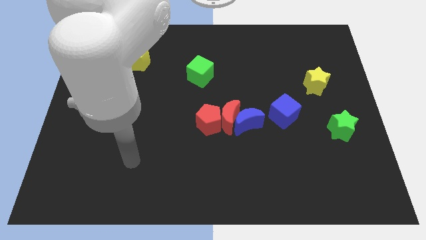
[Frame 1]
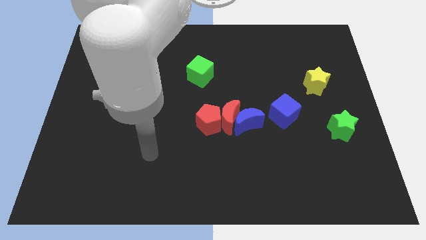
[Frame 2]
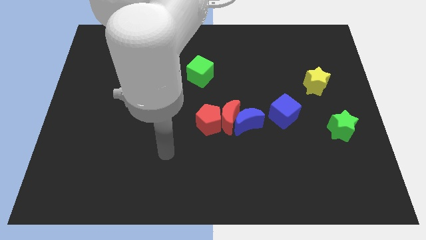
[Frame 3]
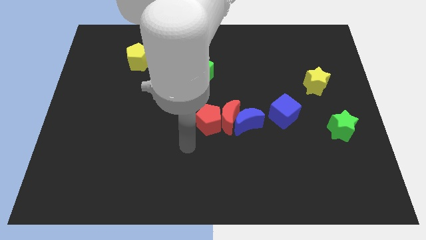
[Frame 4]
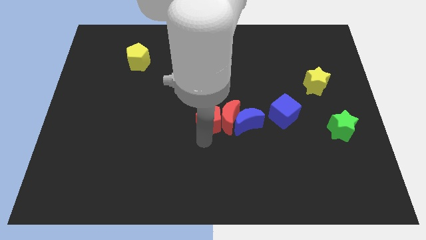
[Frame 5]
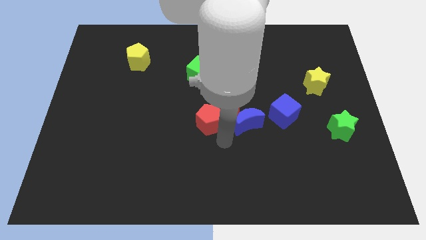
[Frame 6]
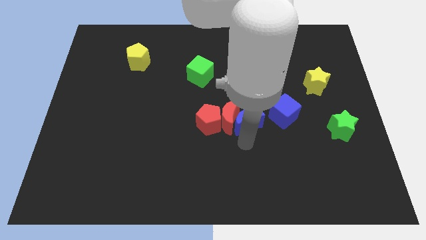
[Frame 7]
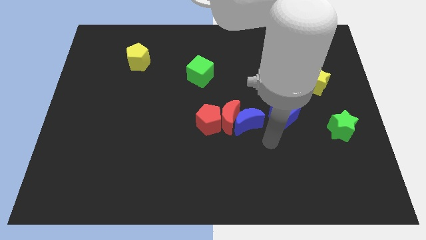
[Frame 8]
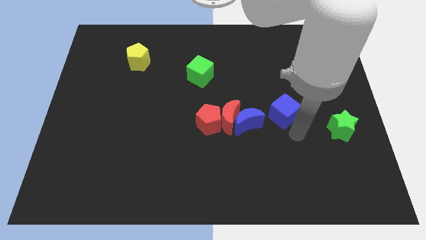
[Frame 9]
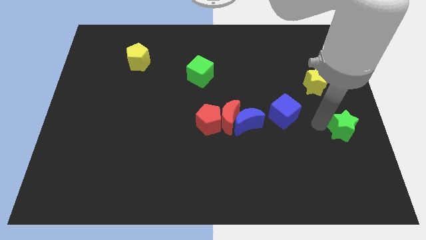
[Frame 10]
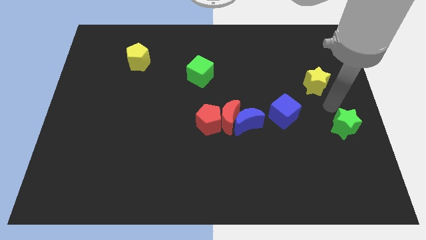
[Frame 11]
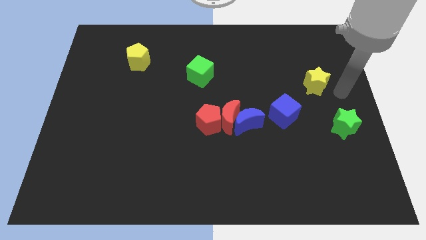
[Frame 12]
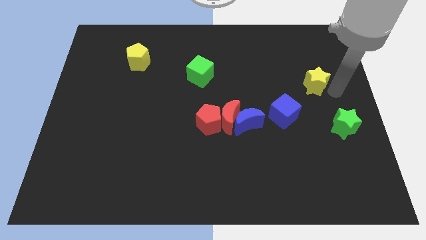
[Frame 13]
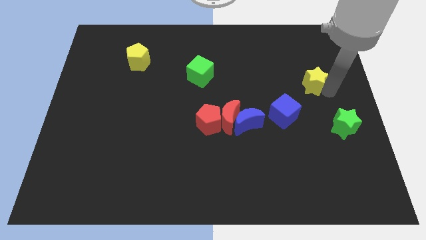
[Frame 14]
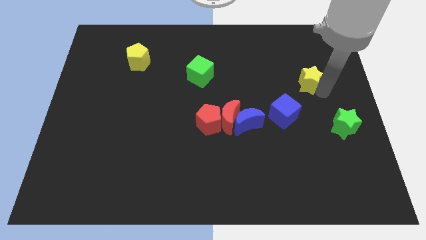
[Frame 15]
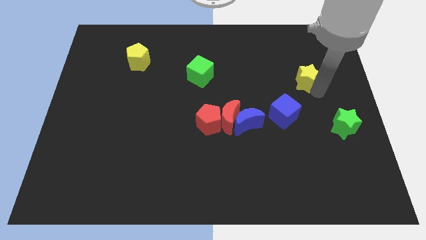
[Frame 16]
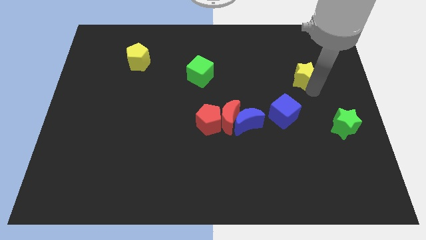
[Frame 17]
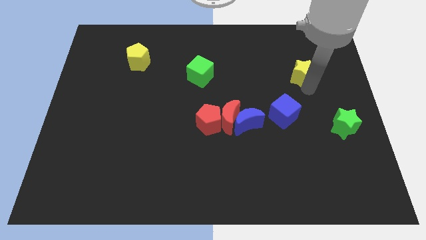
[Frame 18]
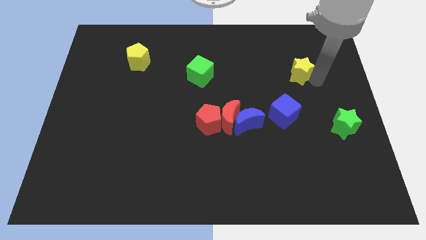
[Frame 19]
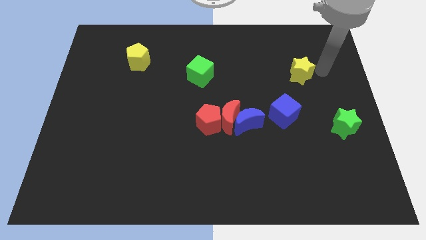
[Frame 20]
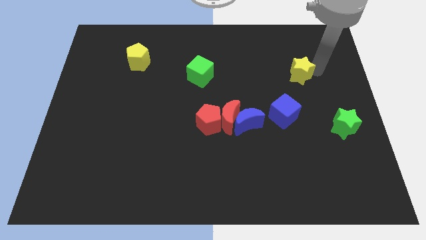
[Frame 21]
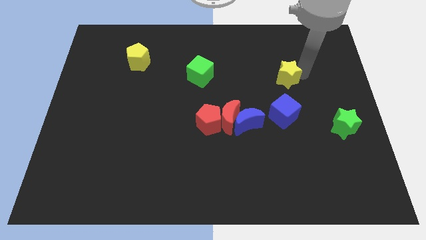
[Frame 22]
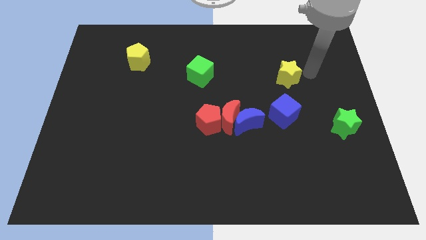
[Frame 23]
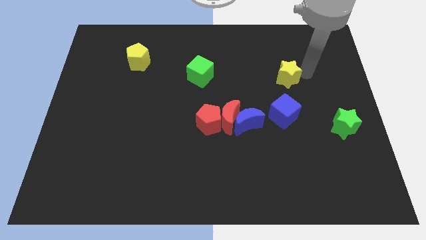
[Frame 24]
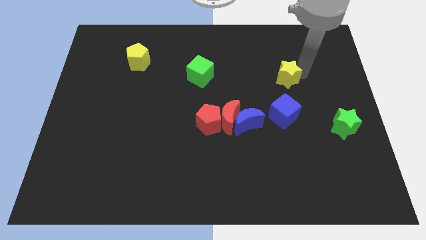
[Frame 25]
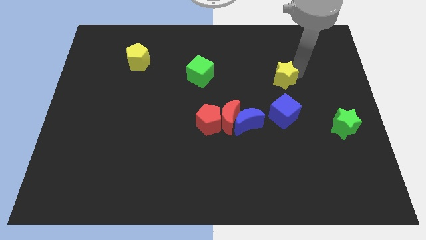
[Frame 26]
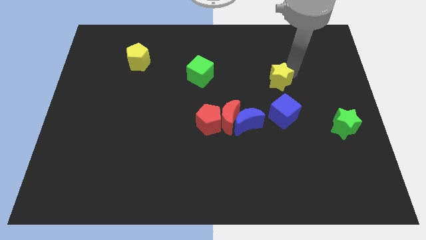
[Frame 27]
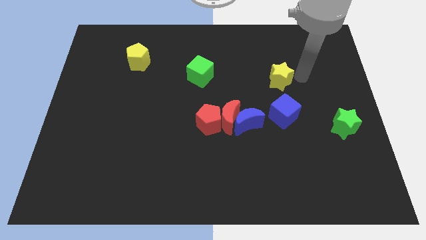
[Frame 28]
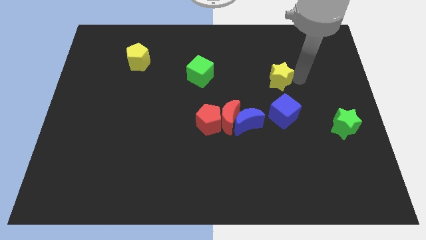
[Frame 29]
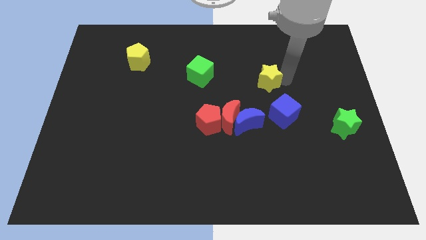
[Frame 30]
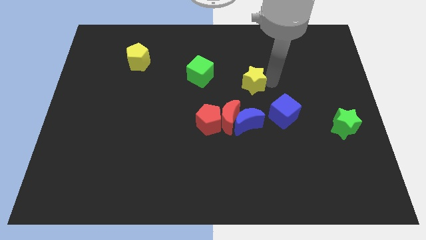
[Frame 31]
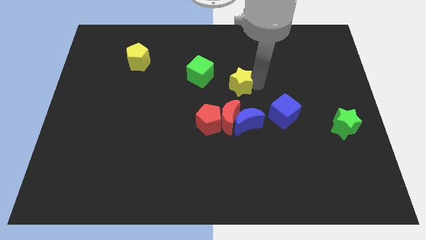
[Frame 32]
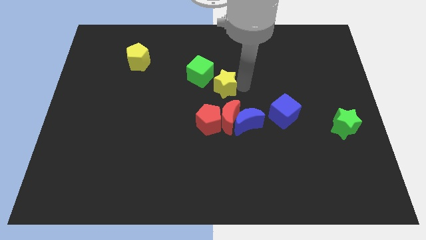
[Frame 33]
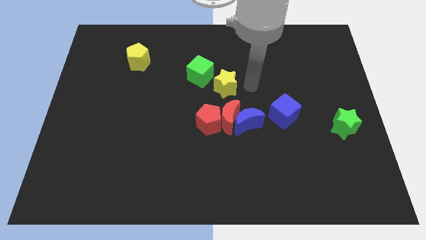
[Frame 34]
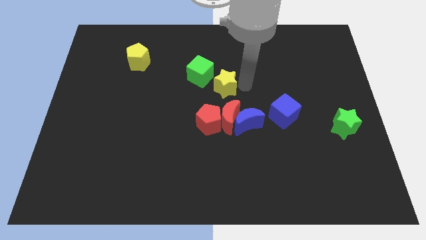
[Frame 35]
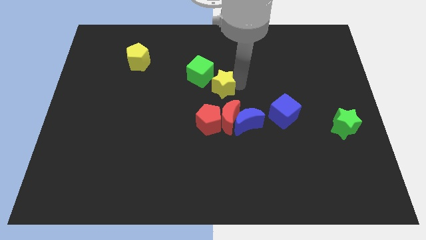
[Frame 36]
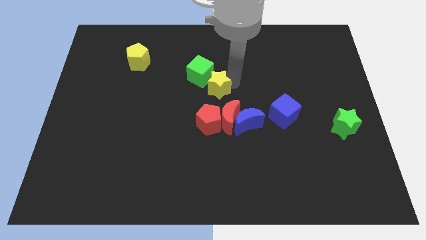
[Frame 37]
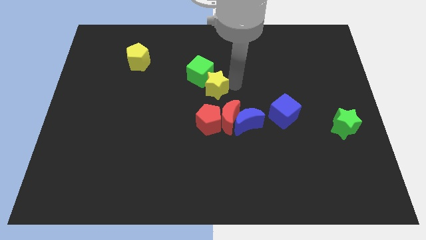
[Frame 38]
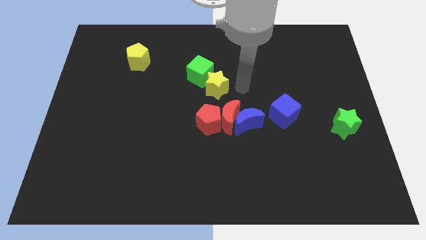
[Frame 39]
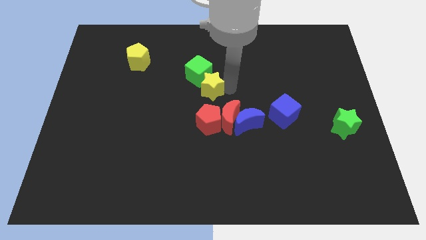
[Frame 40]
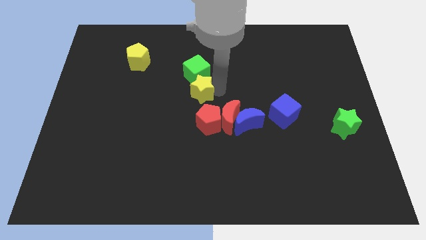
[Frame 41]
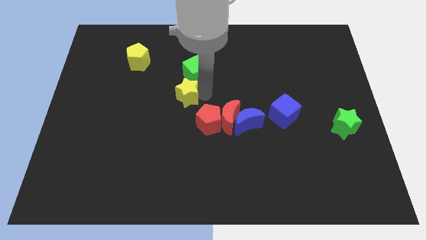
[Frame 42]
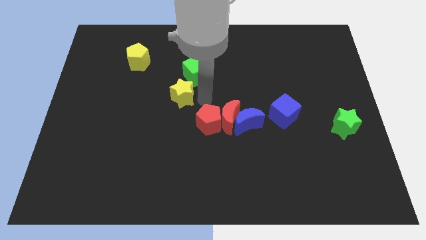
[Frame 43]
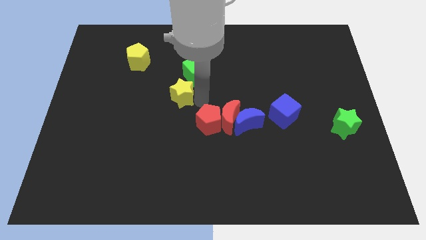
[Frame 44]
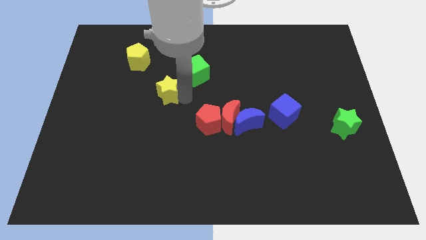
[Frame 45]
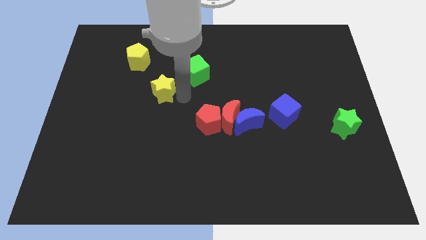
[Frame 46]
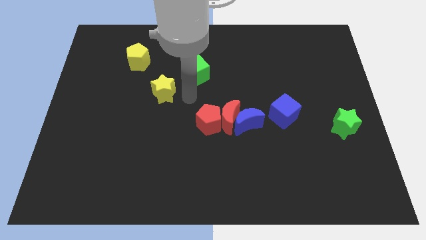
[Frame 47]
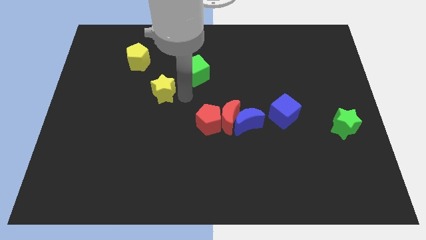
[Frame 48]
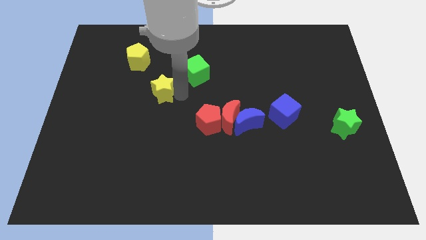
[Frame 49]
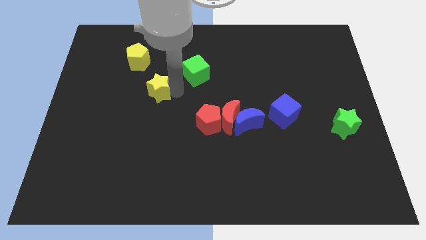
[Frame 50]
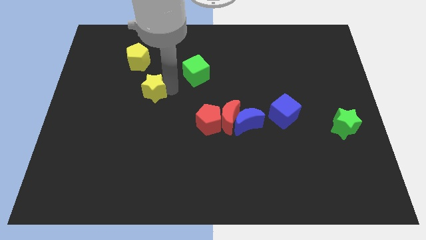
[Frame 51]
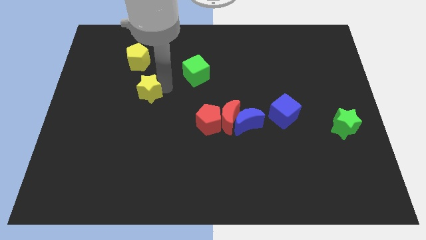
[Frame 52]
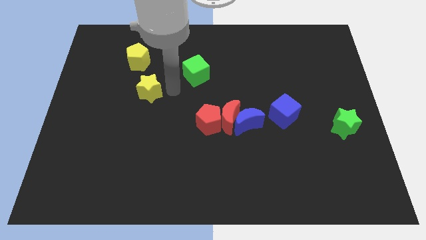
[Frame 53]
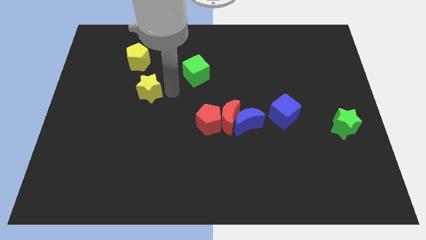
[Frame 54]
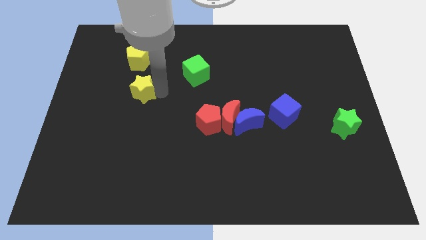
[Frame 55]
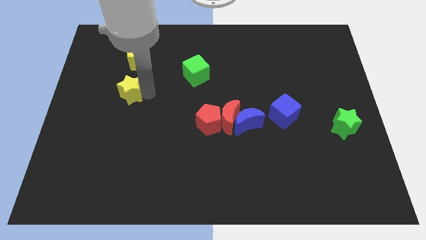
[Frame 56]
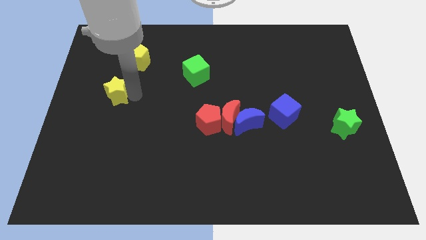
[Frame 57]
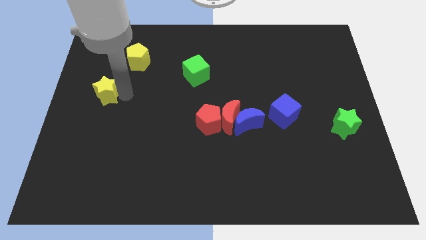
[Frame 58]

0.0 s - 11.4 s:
put the yellow star to the left side of the board

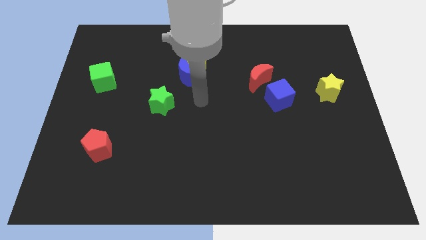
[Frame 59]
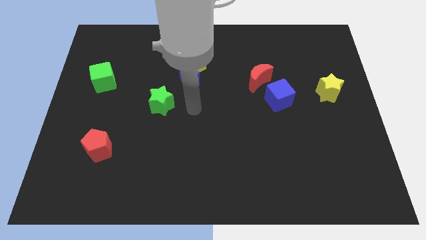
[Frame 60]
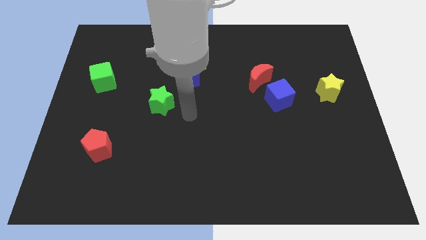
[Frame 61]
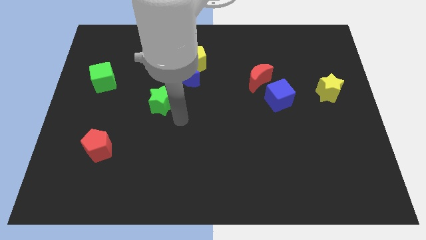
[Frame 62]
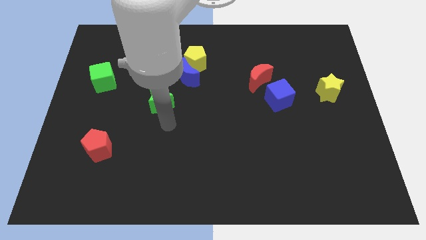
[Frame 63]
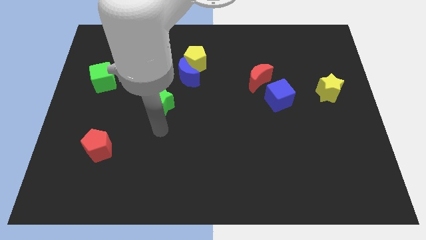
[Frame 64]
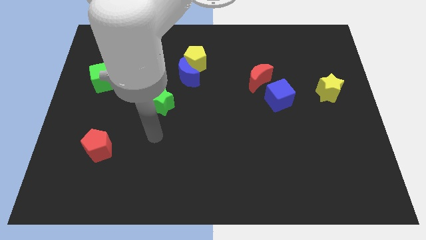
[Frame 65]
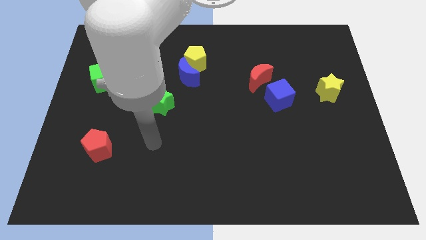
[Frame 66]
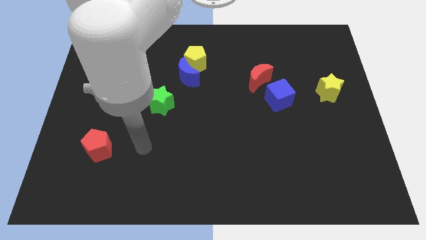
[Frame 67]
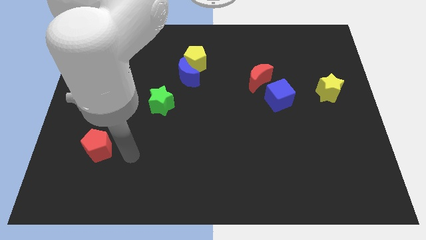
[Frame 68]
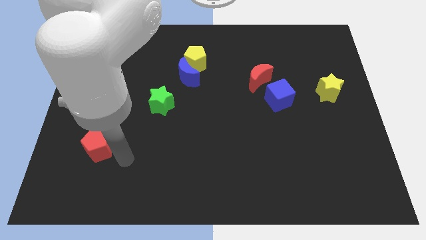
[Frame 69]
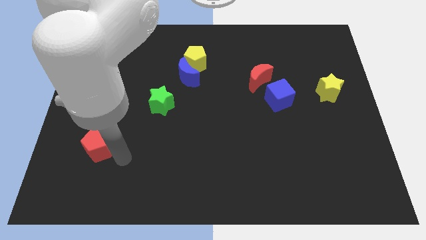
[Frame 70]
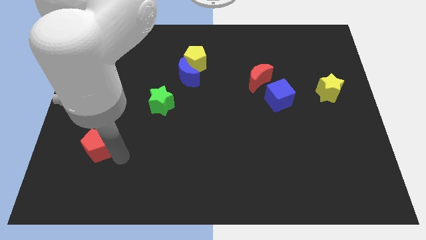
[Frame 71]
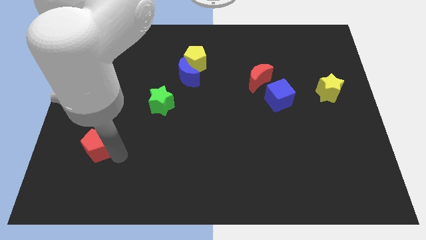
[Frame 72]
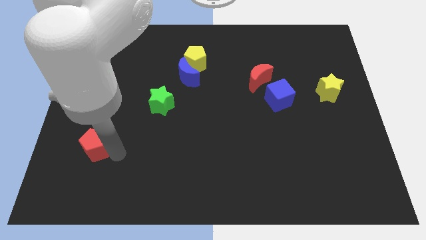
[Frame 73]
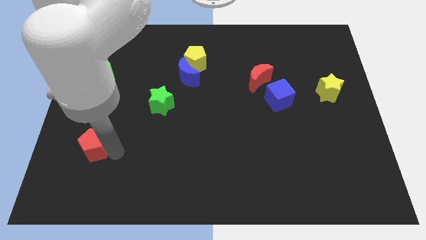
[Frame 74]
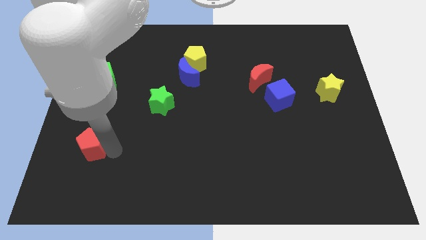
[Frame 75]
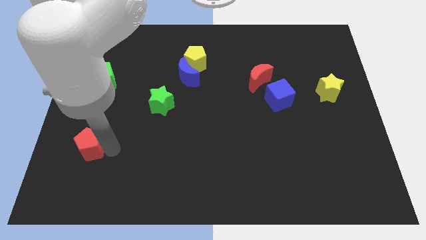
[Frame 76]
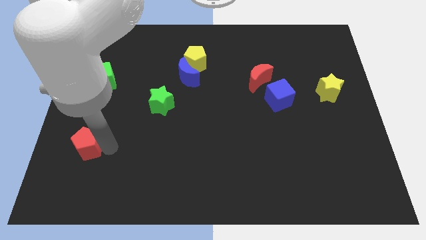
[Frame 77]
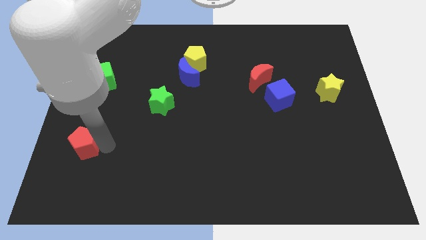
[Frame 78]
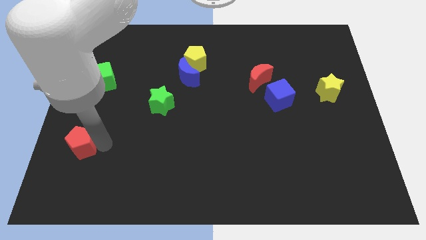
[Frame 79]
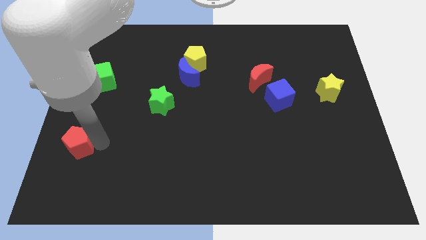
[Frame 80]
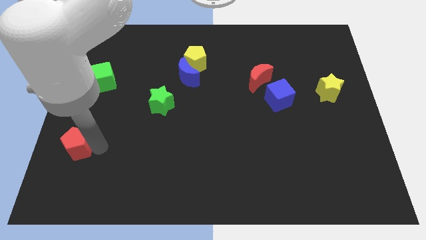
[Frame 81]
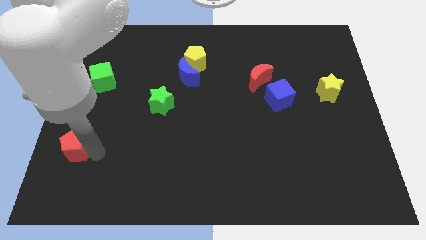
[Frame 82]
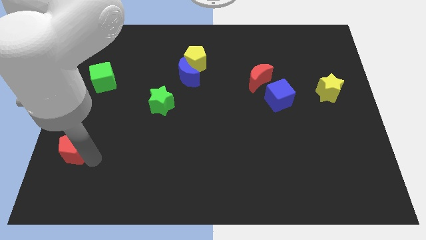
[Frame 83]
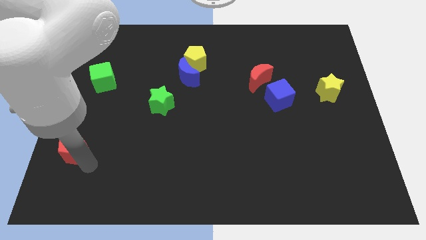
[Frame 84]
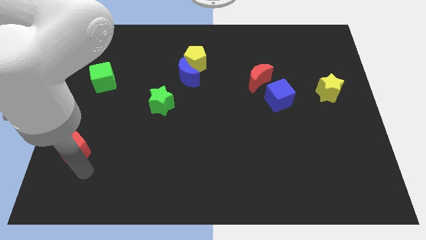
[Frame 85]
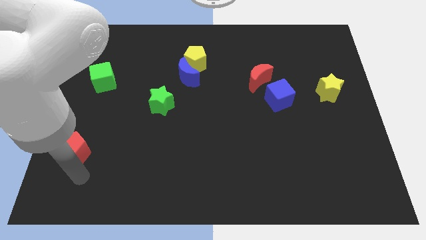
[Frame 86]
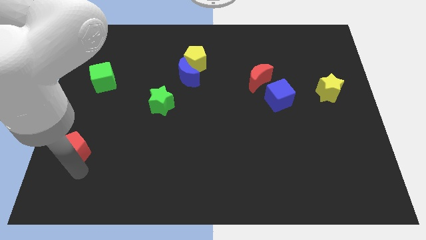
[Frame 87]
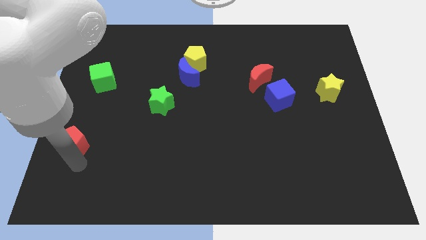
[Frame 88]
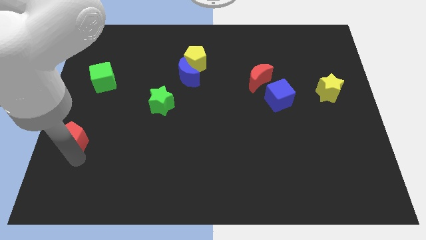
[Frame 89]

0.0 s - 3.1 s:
slide the red pentagon to the left side of the board
